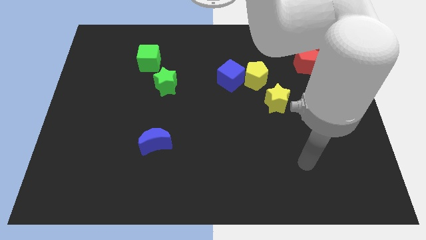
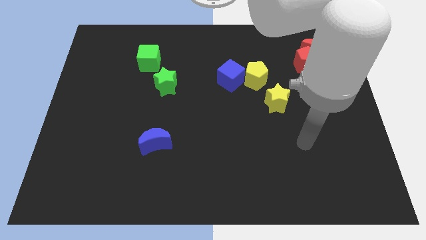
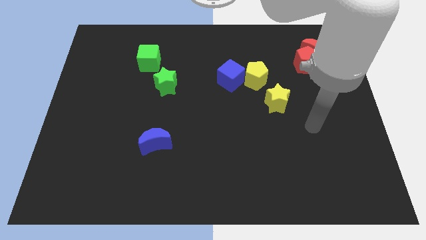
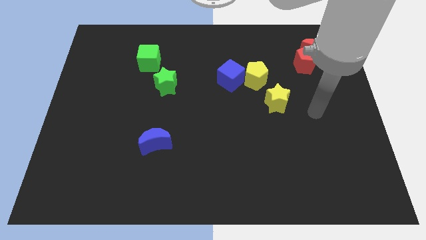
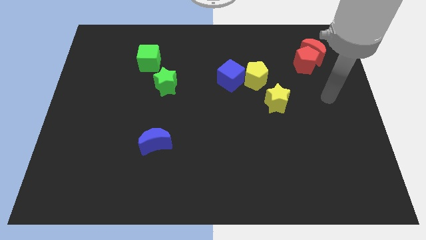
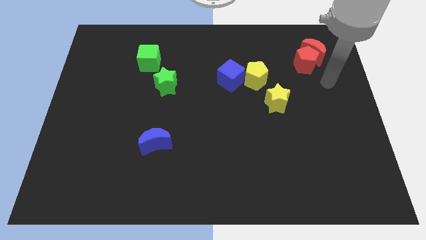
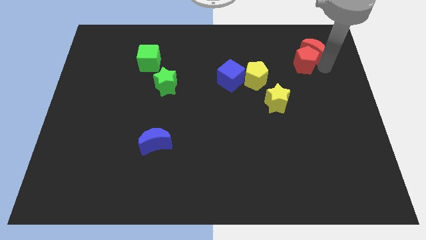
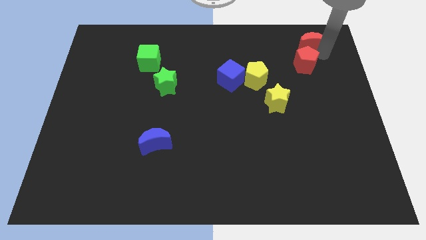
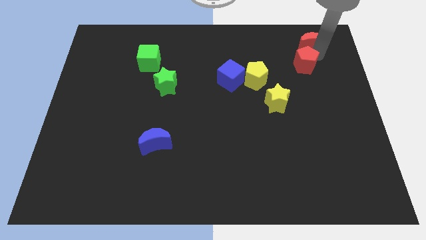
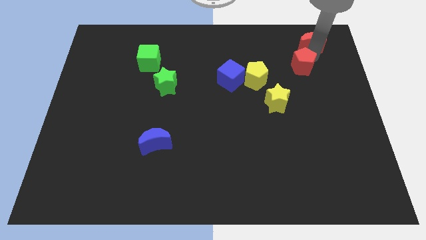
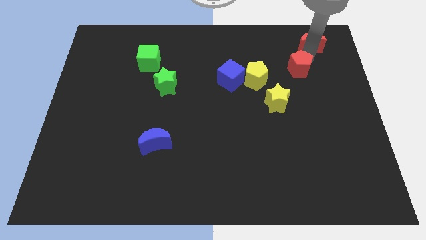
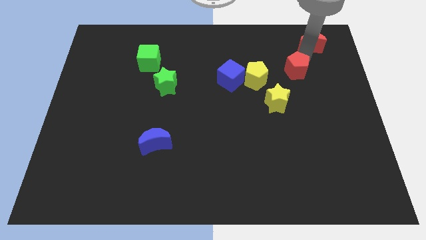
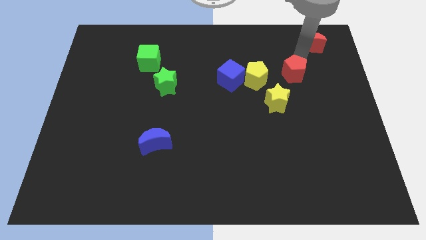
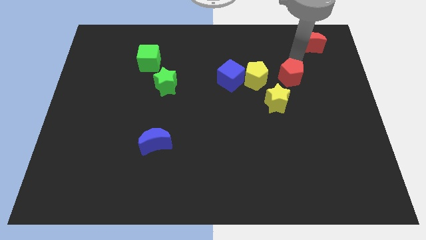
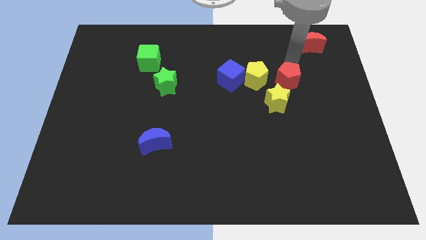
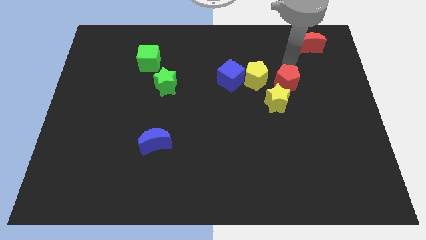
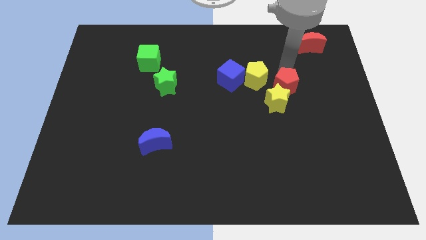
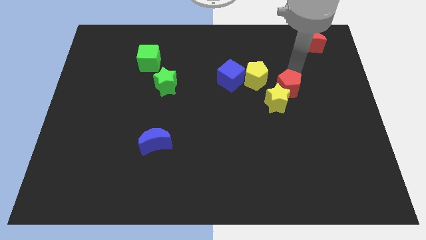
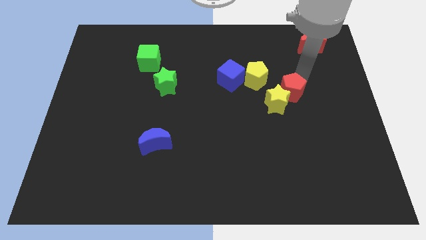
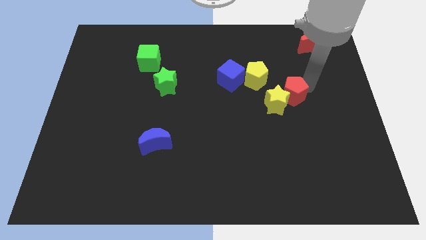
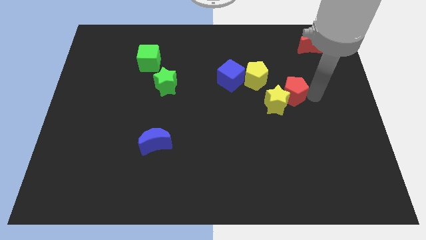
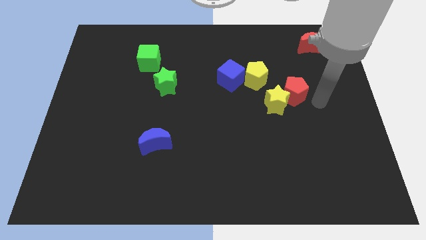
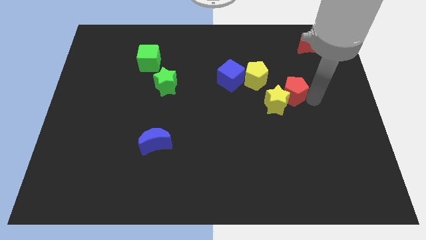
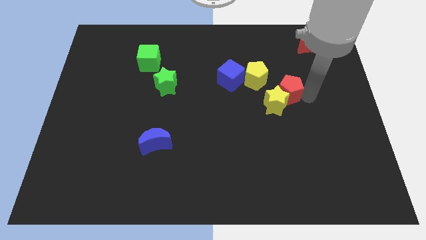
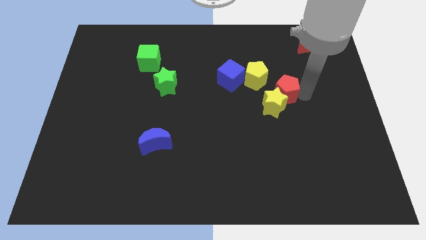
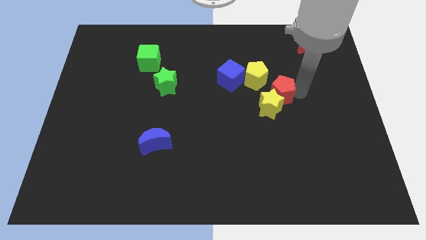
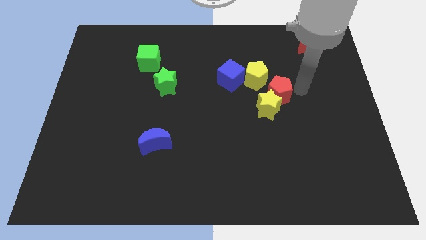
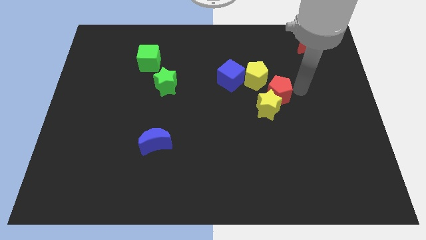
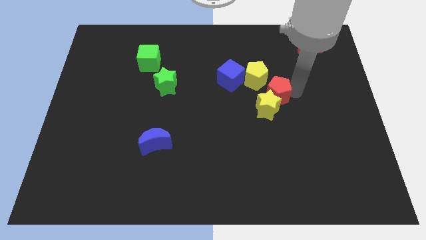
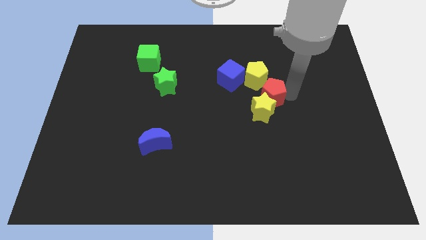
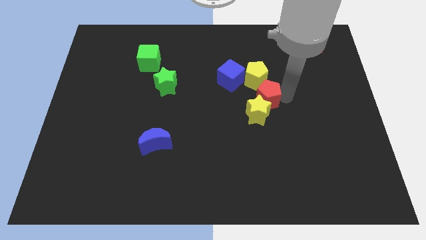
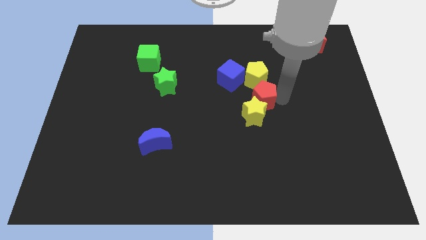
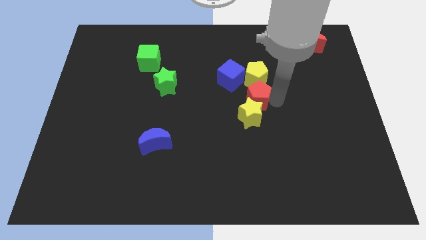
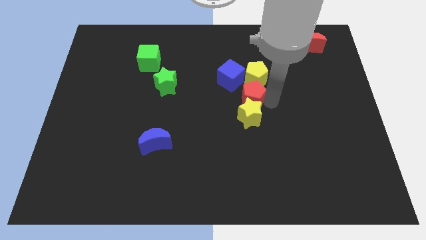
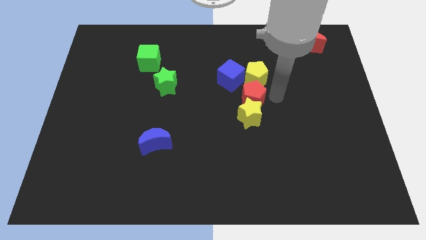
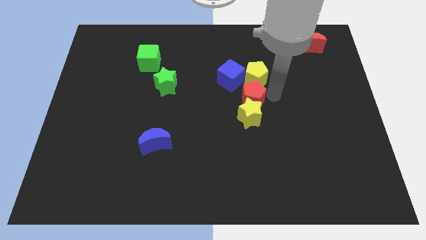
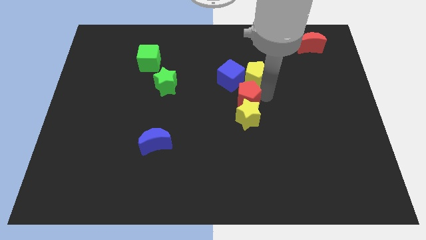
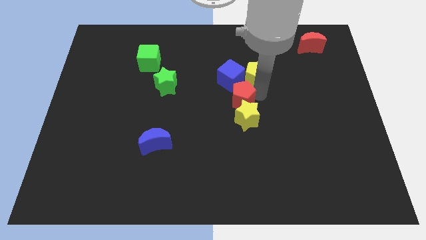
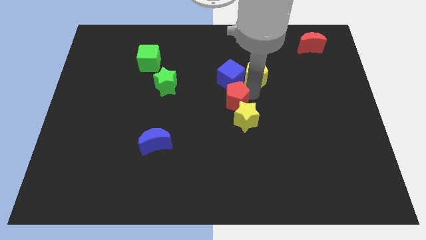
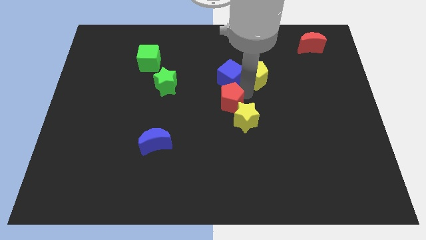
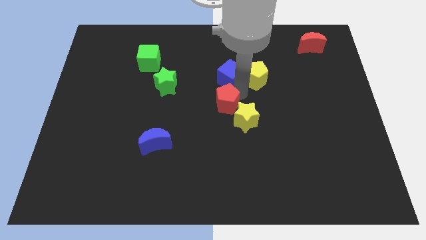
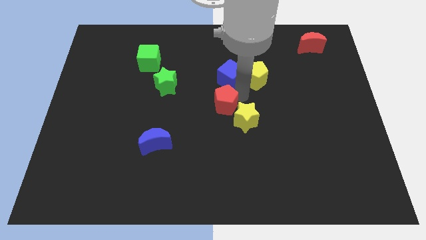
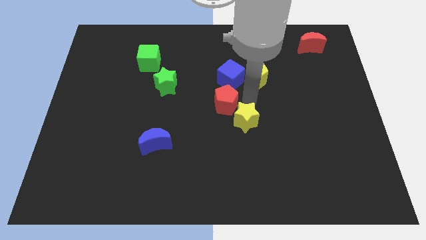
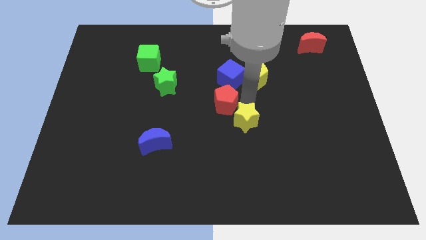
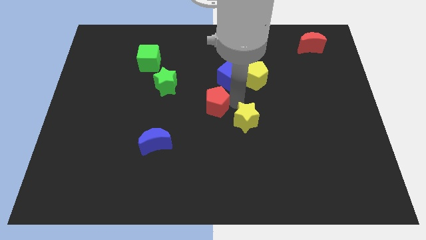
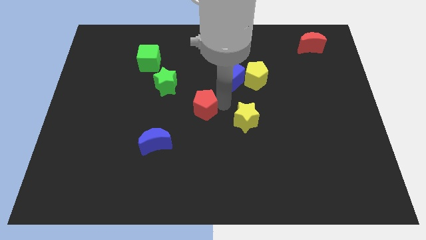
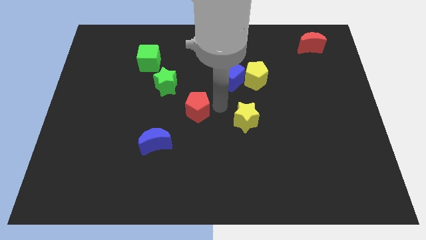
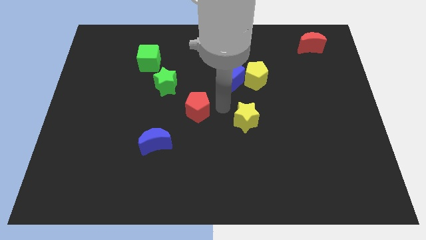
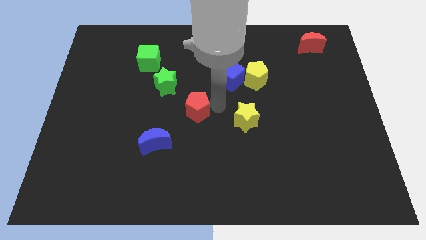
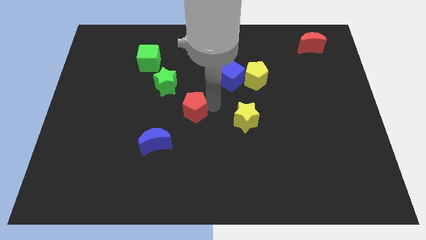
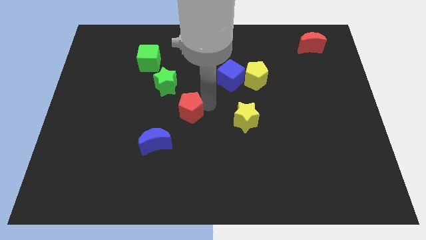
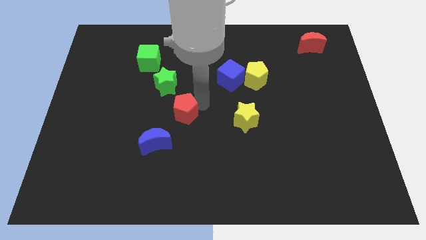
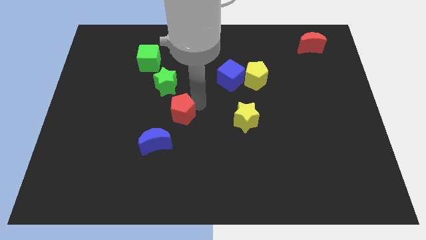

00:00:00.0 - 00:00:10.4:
push the red pentagon to the bottom side of the green star

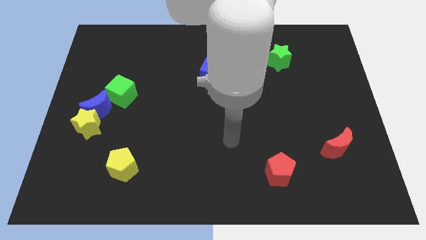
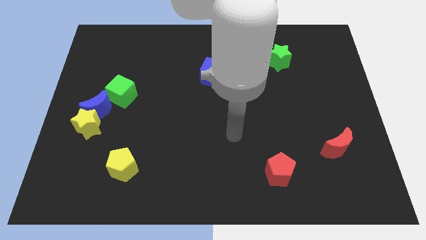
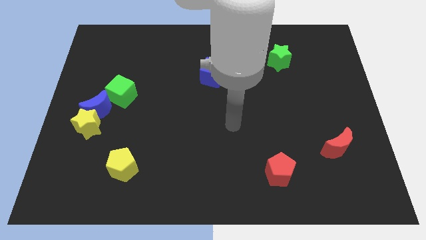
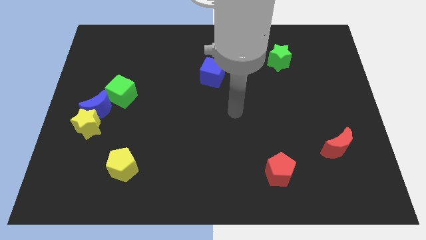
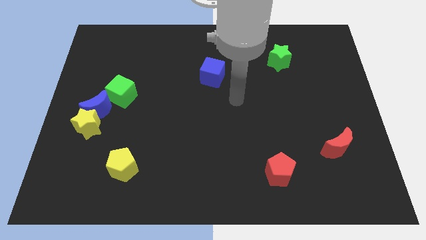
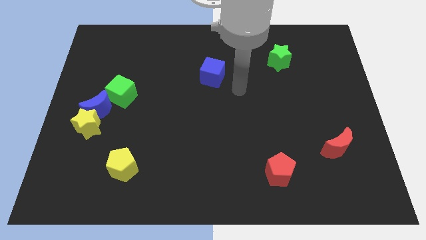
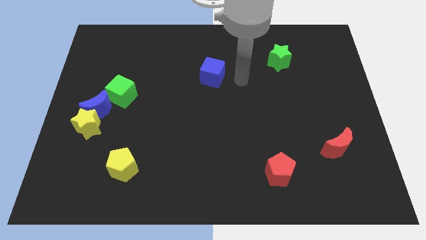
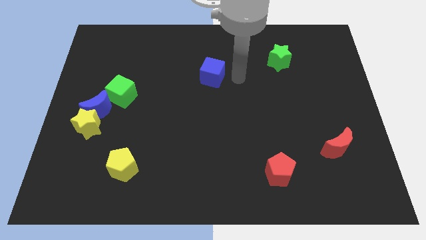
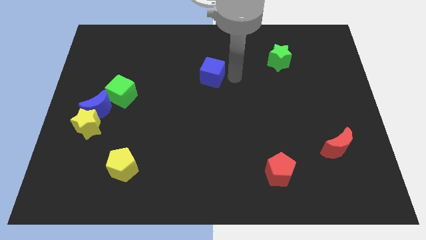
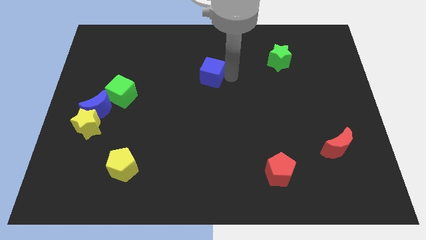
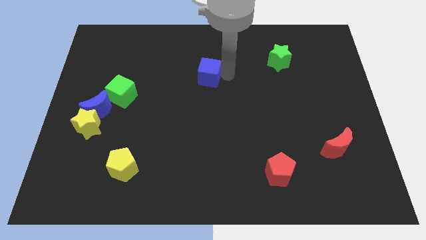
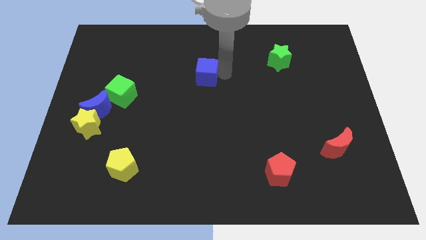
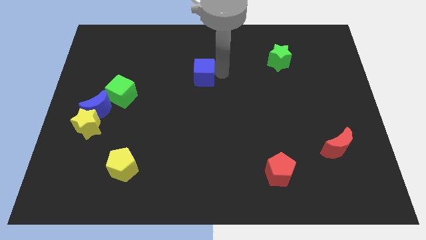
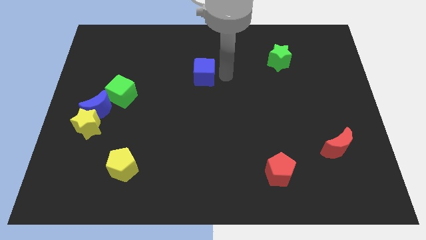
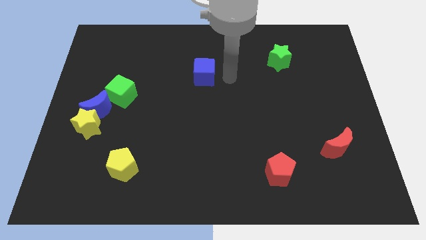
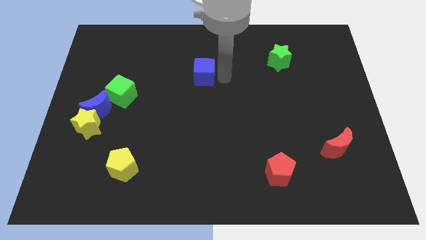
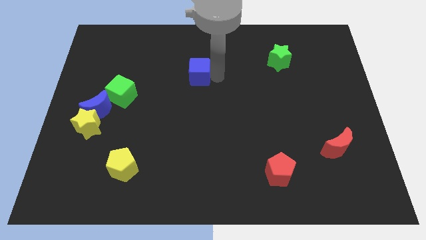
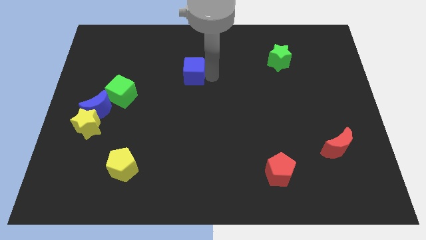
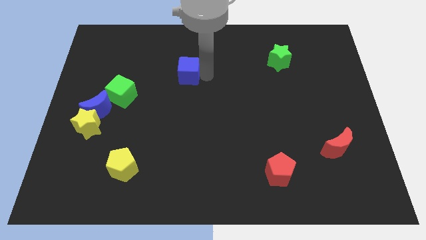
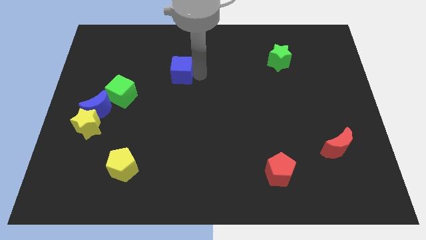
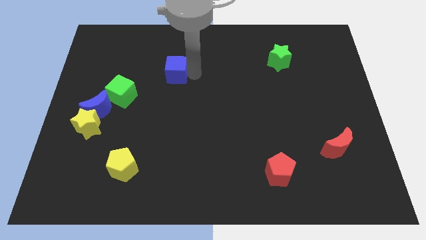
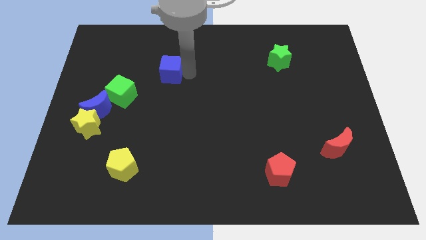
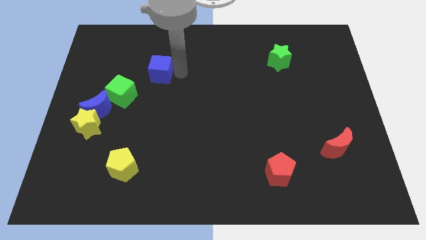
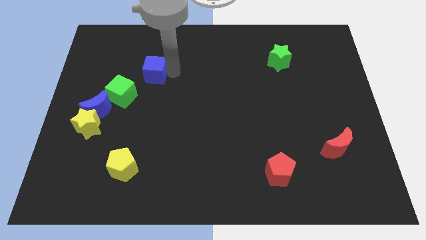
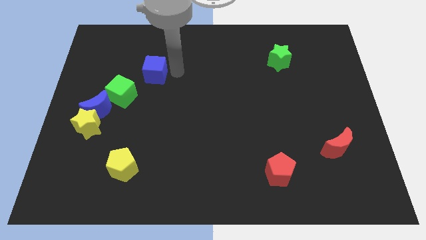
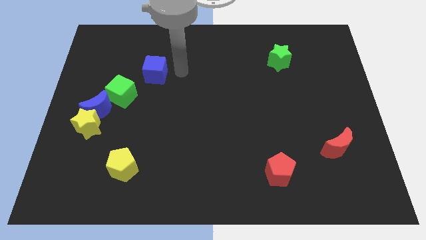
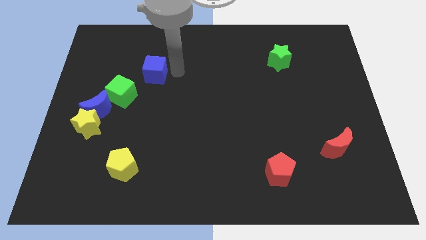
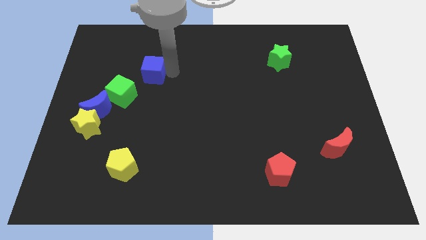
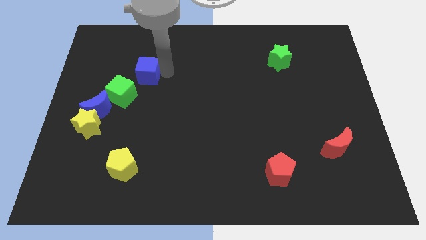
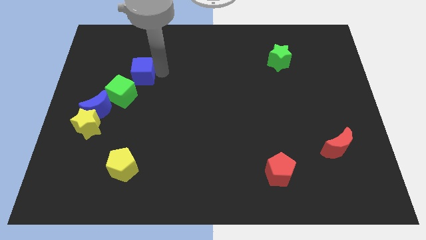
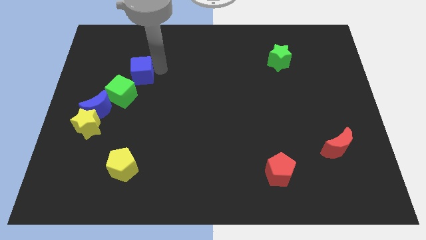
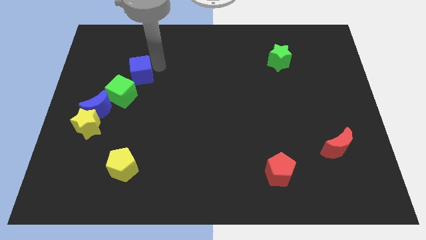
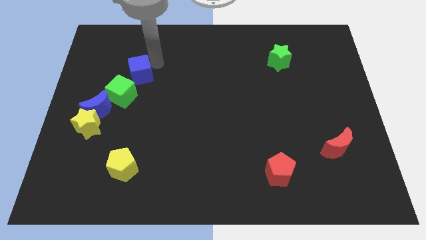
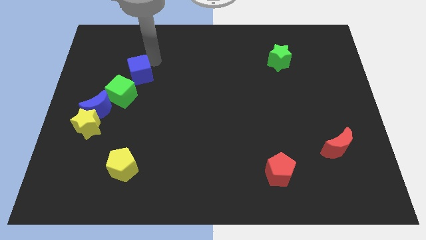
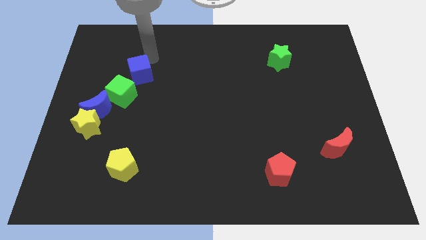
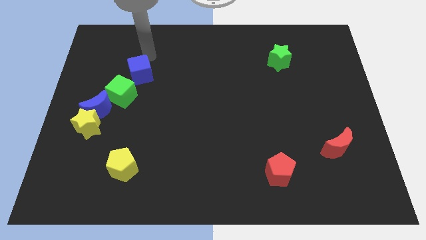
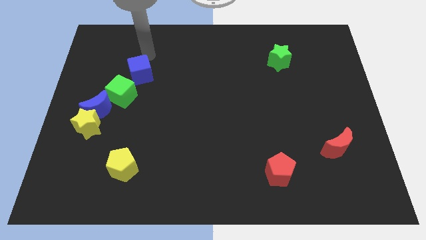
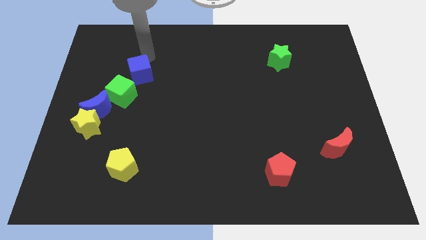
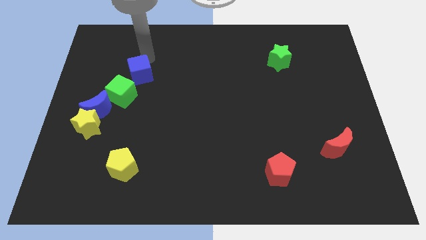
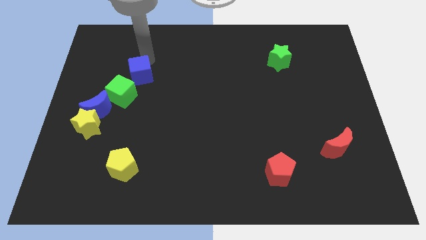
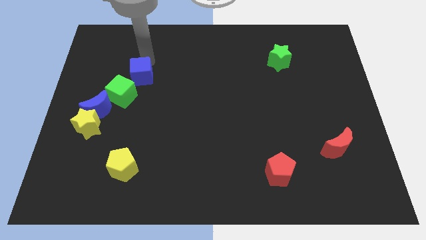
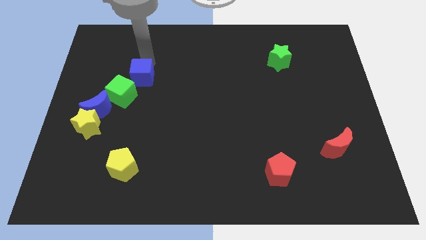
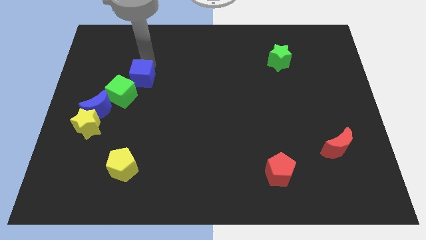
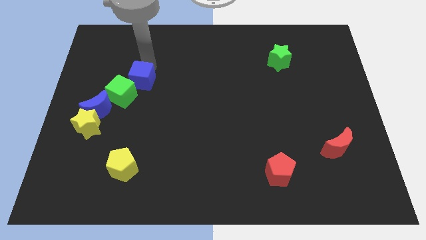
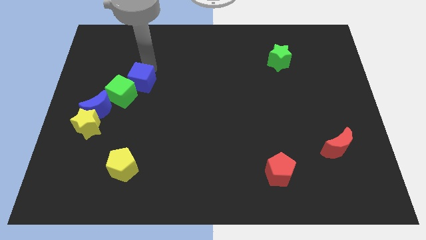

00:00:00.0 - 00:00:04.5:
move the blue cube to the top right of the blue moon
